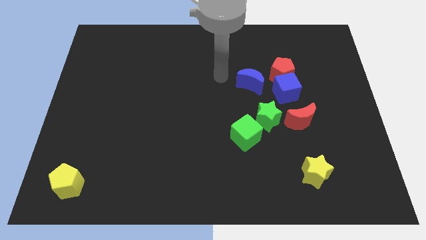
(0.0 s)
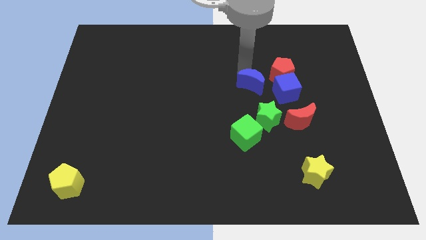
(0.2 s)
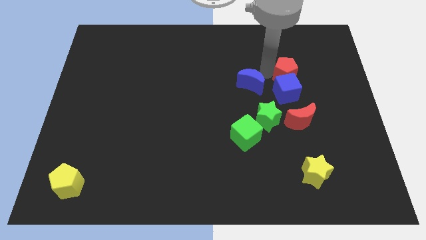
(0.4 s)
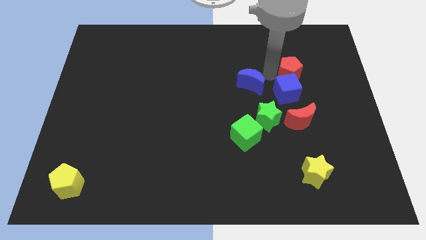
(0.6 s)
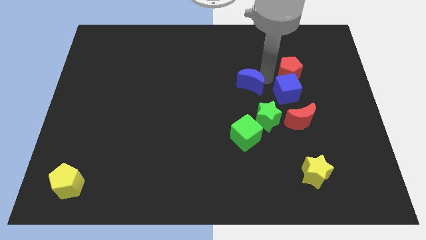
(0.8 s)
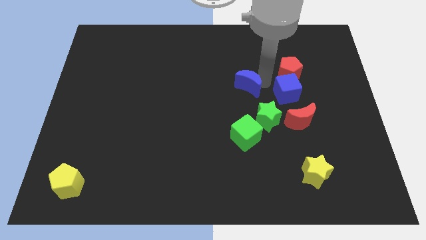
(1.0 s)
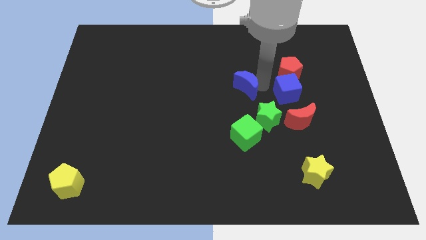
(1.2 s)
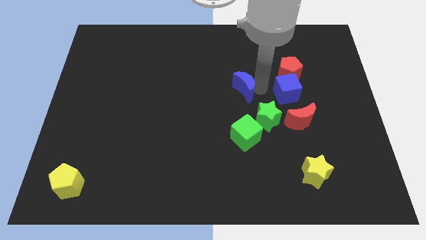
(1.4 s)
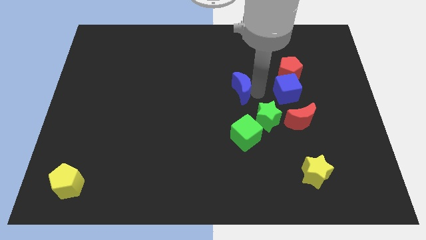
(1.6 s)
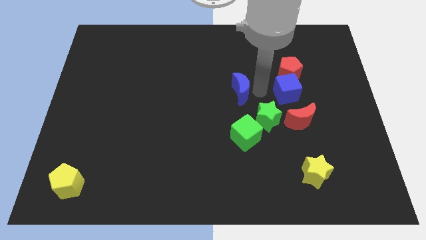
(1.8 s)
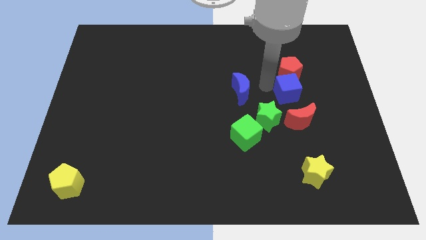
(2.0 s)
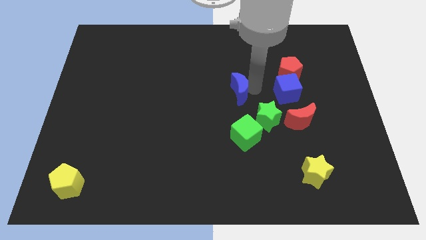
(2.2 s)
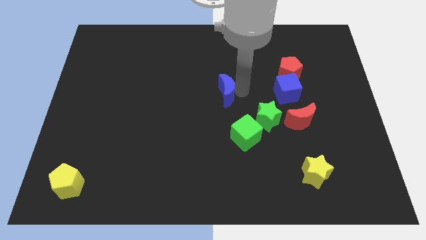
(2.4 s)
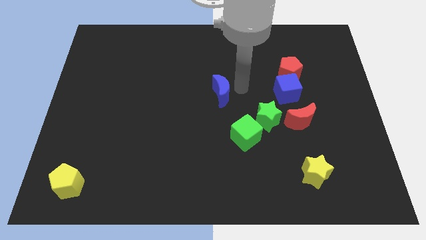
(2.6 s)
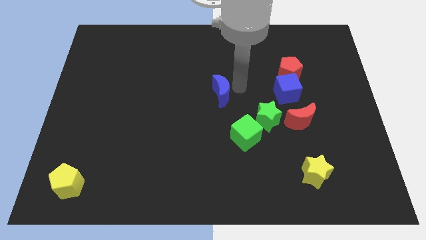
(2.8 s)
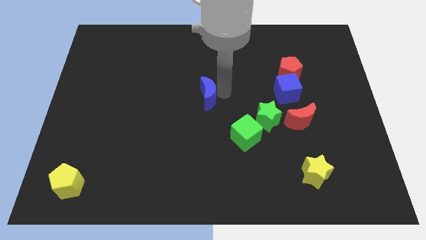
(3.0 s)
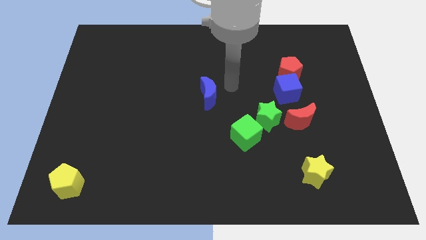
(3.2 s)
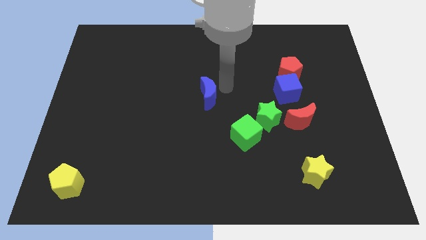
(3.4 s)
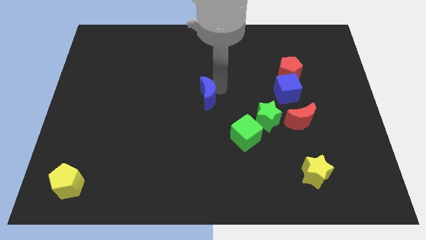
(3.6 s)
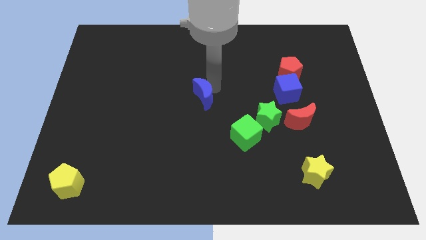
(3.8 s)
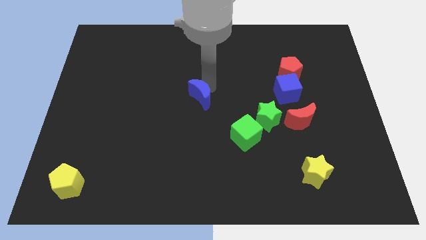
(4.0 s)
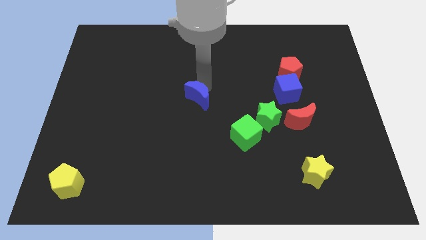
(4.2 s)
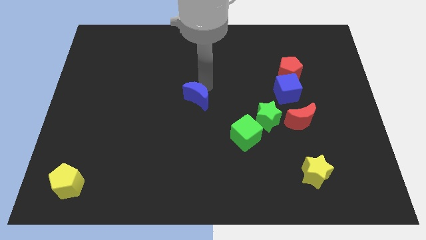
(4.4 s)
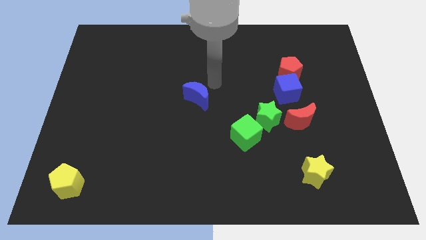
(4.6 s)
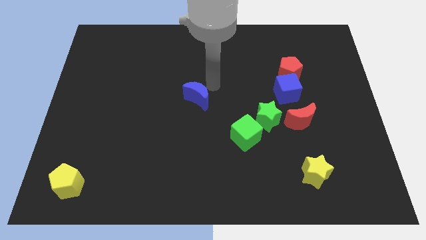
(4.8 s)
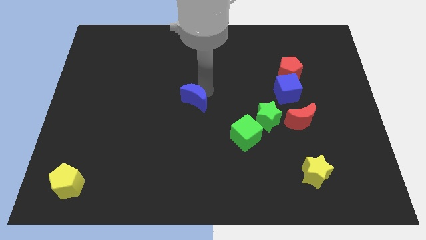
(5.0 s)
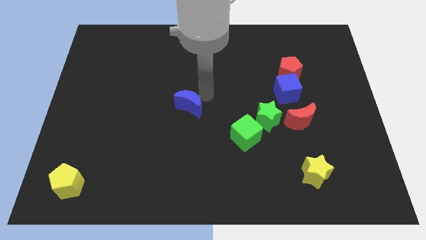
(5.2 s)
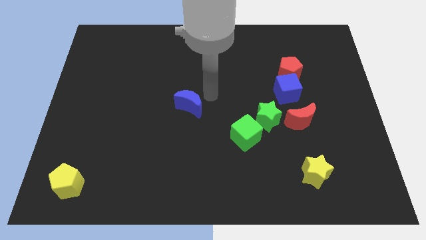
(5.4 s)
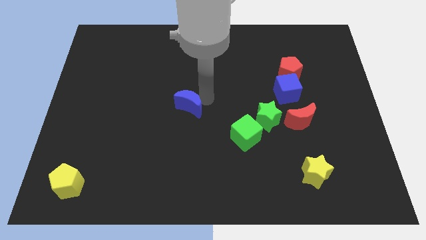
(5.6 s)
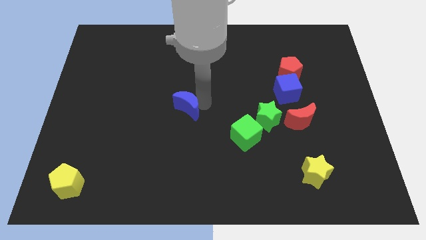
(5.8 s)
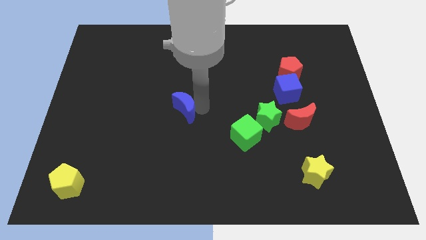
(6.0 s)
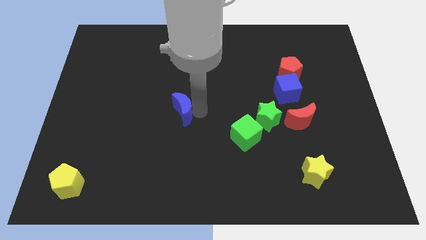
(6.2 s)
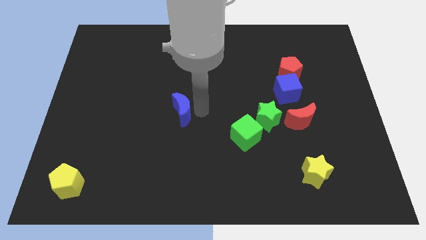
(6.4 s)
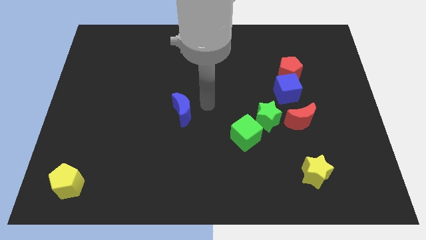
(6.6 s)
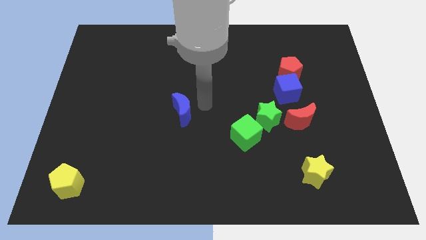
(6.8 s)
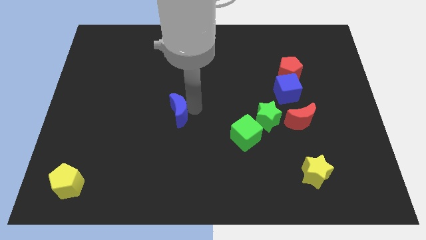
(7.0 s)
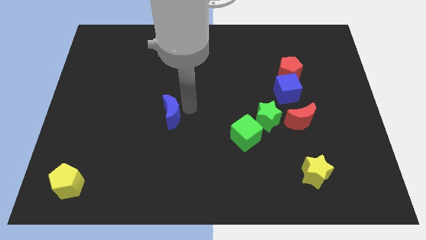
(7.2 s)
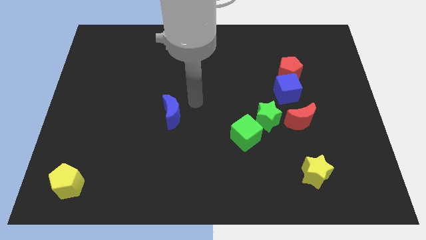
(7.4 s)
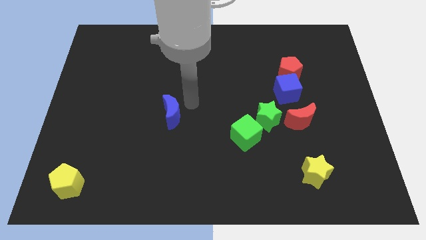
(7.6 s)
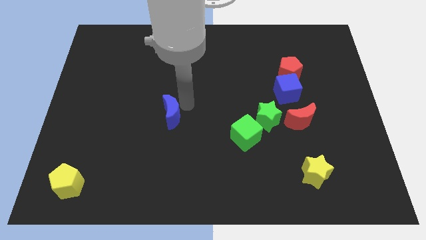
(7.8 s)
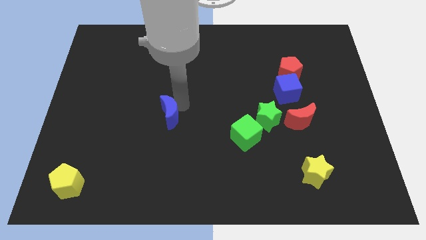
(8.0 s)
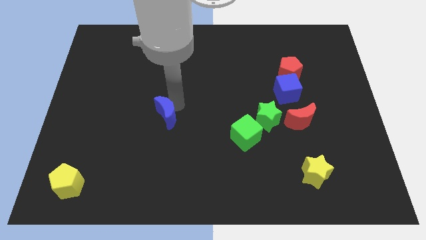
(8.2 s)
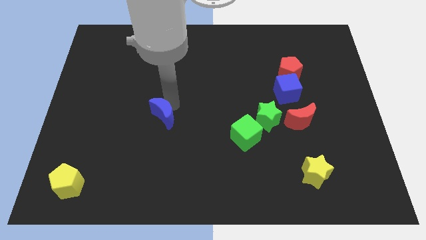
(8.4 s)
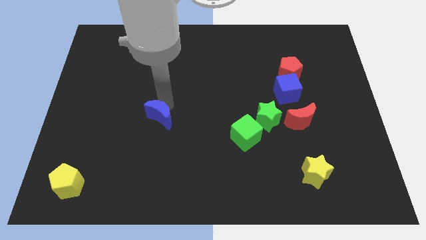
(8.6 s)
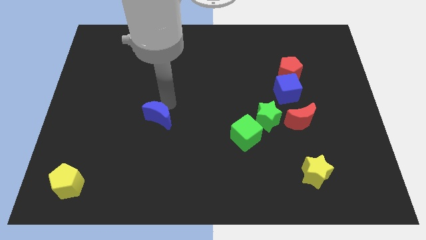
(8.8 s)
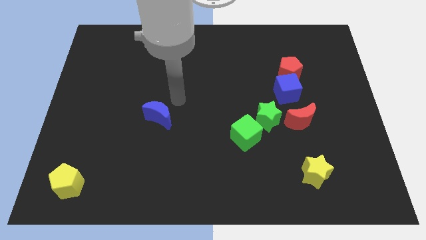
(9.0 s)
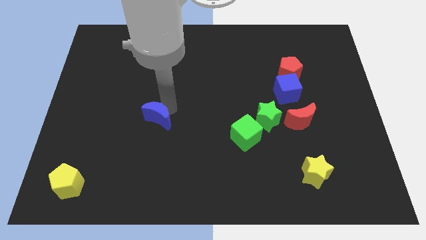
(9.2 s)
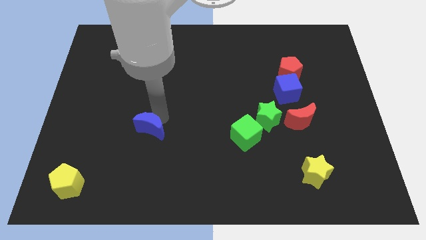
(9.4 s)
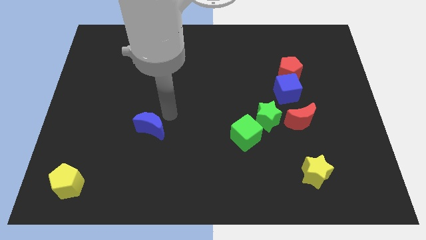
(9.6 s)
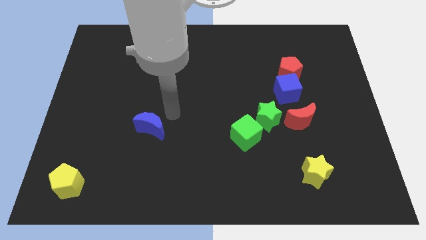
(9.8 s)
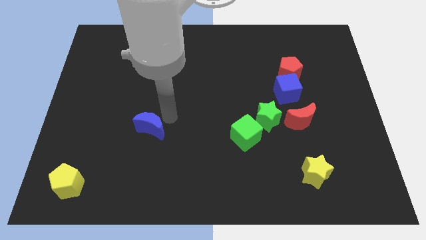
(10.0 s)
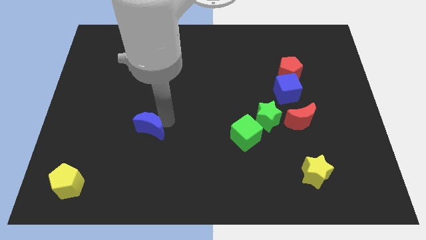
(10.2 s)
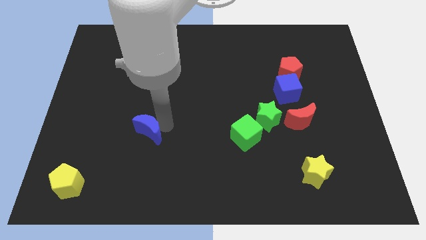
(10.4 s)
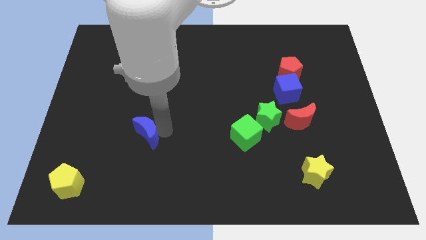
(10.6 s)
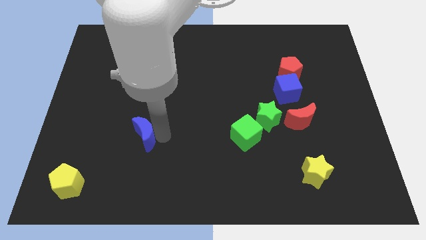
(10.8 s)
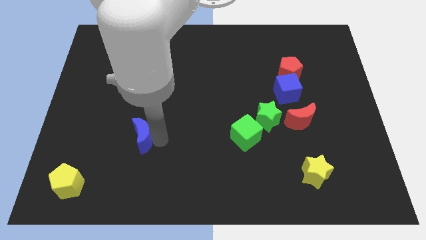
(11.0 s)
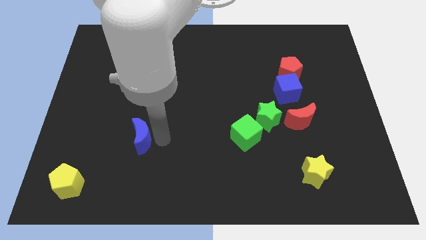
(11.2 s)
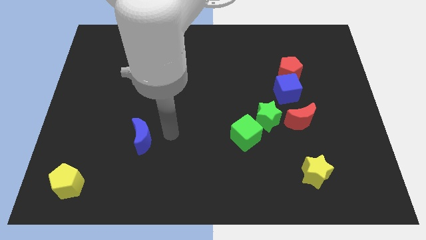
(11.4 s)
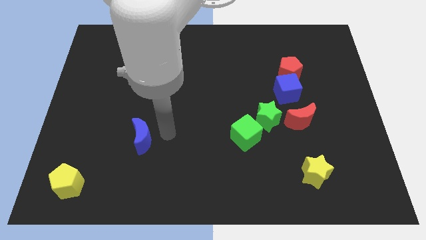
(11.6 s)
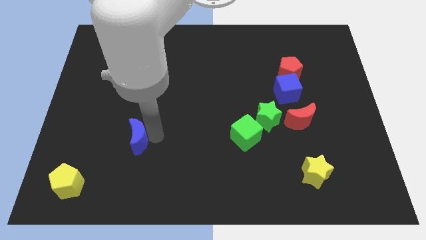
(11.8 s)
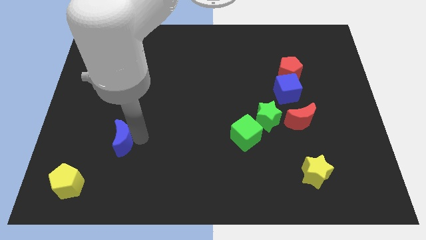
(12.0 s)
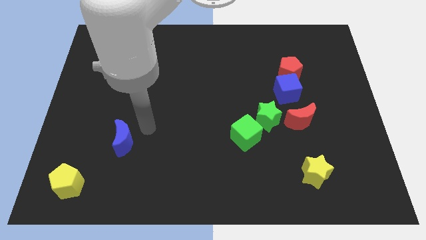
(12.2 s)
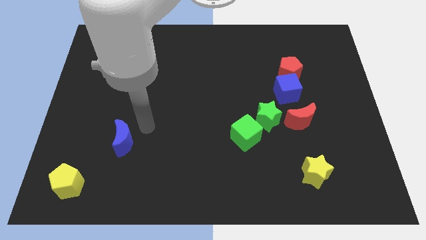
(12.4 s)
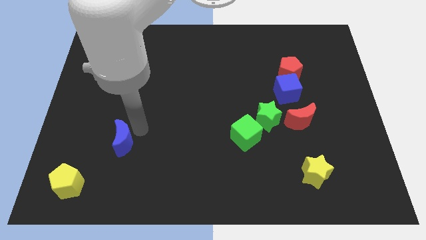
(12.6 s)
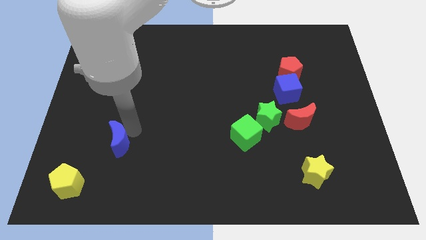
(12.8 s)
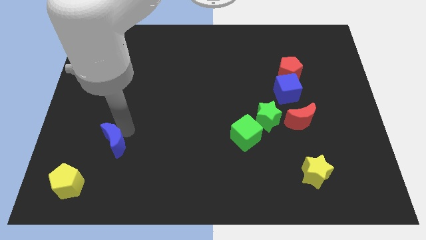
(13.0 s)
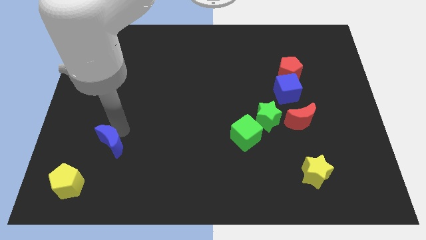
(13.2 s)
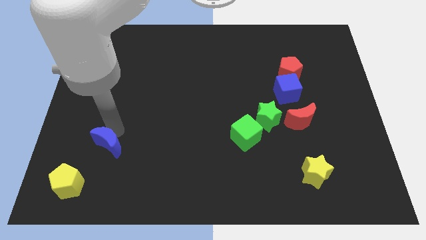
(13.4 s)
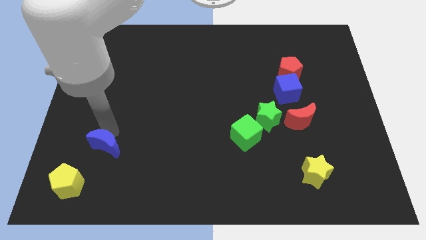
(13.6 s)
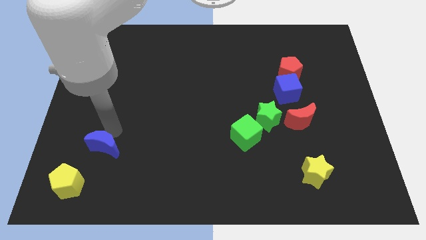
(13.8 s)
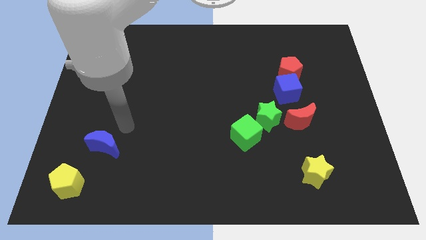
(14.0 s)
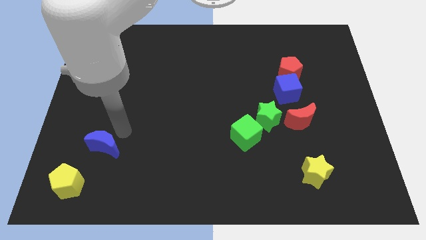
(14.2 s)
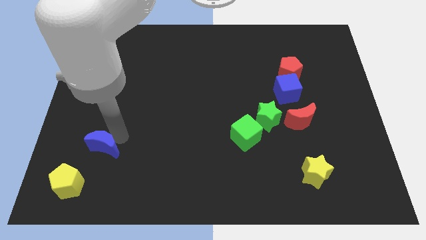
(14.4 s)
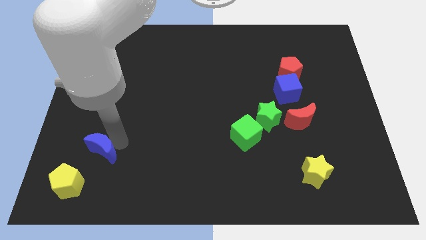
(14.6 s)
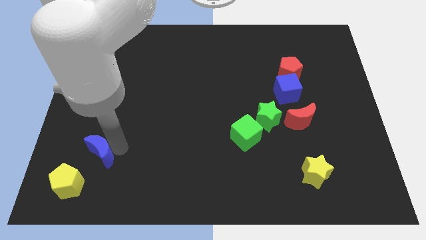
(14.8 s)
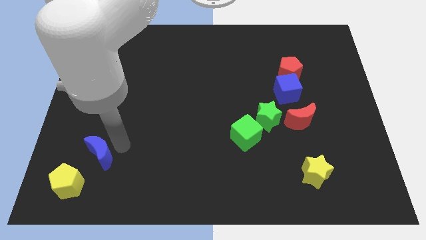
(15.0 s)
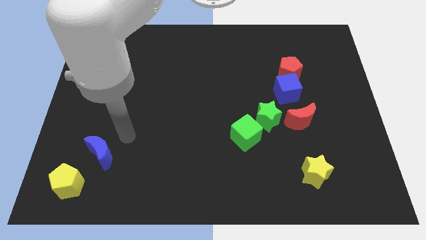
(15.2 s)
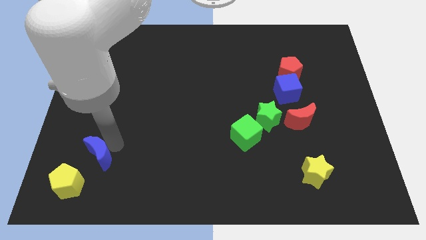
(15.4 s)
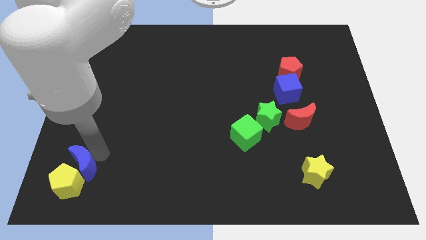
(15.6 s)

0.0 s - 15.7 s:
slide the blue moon towards the yellow pentagon
